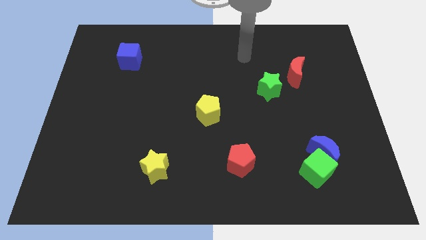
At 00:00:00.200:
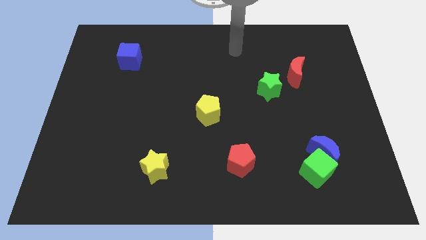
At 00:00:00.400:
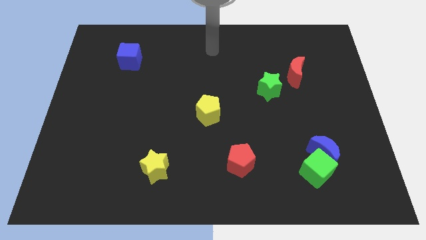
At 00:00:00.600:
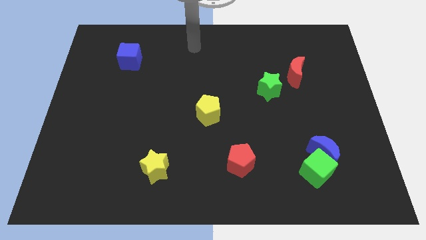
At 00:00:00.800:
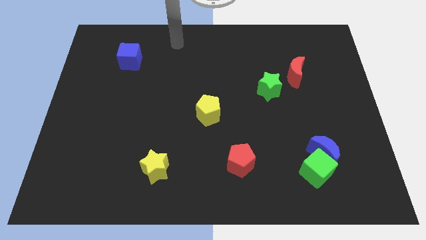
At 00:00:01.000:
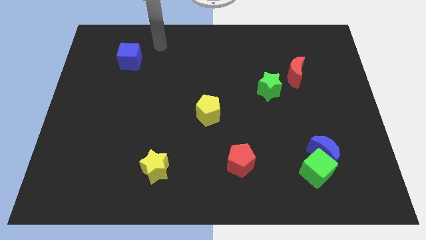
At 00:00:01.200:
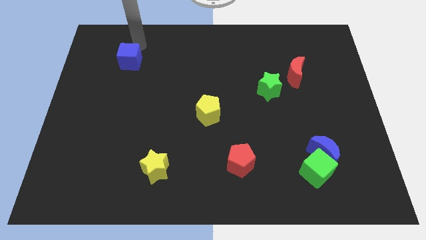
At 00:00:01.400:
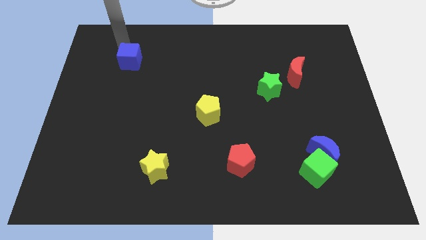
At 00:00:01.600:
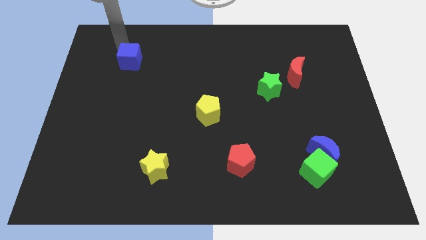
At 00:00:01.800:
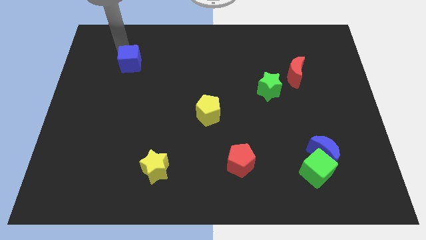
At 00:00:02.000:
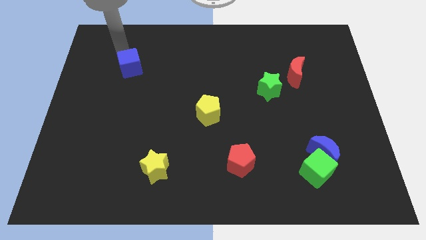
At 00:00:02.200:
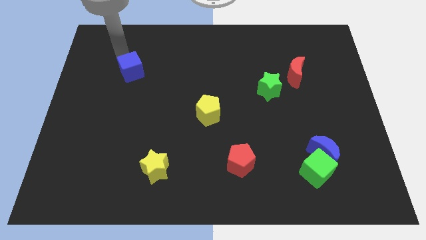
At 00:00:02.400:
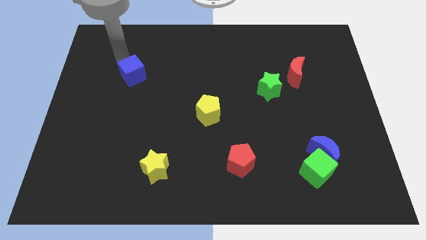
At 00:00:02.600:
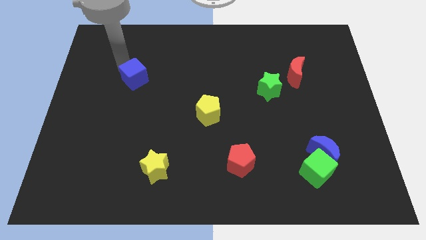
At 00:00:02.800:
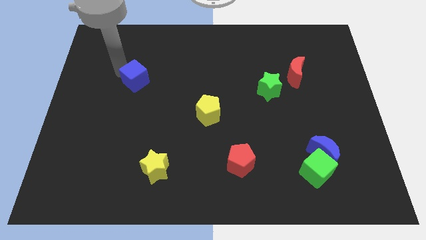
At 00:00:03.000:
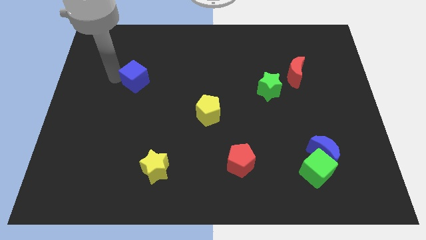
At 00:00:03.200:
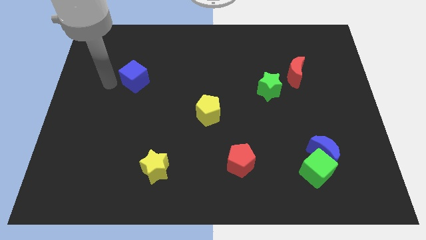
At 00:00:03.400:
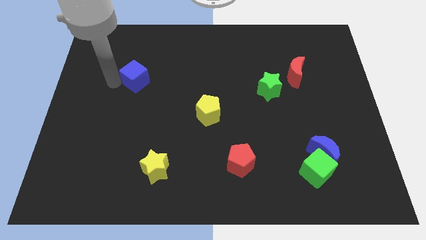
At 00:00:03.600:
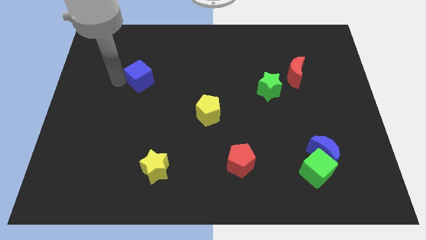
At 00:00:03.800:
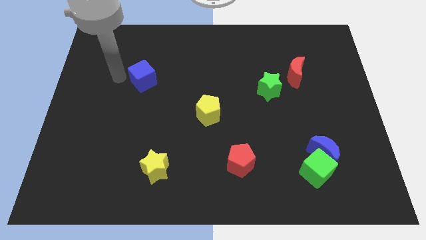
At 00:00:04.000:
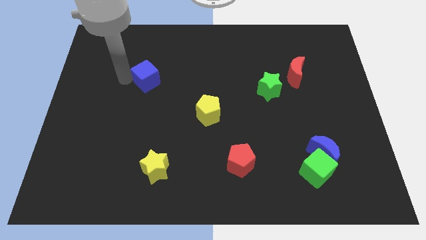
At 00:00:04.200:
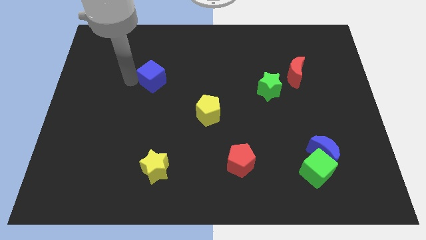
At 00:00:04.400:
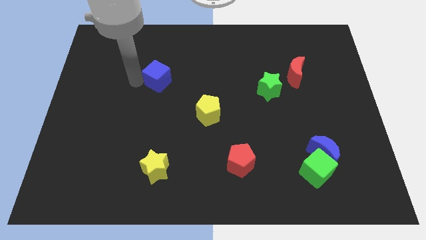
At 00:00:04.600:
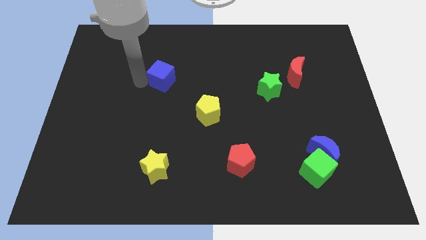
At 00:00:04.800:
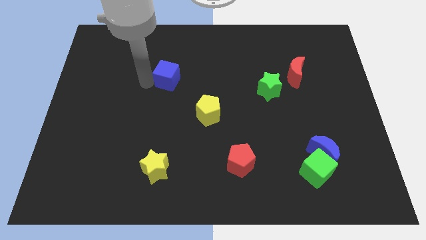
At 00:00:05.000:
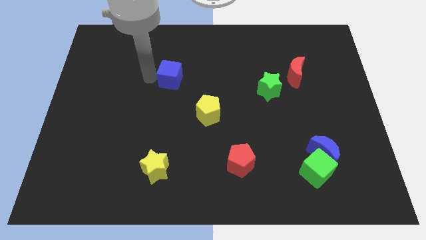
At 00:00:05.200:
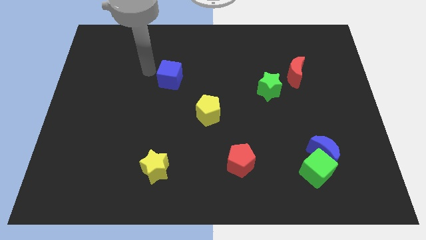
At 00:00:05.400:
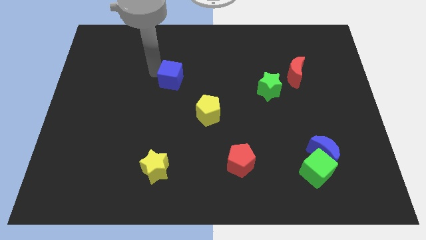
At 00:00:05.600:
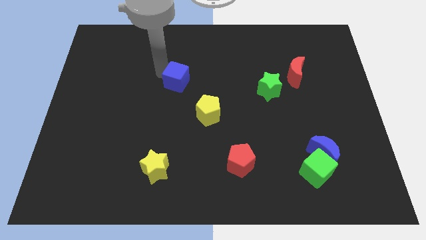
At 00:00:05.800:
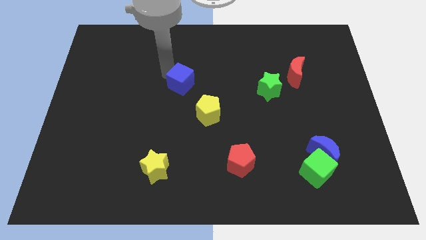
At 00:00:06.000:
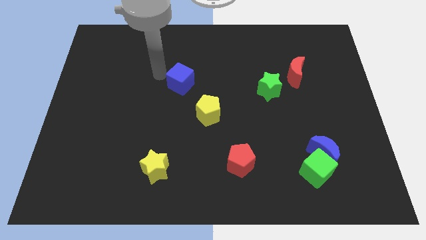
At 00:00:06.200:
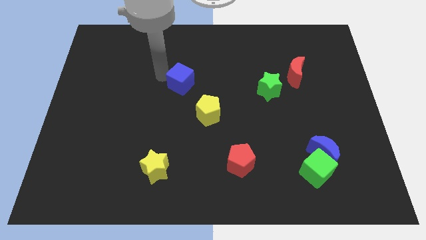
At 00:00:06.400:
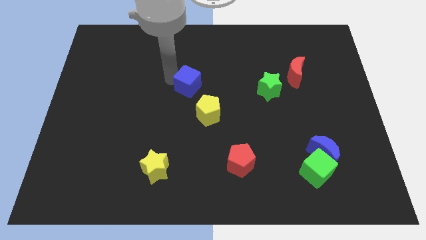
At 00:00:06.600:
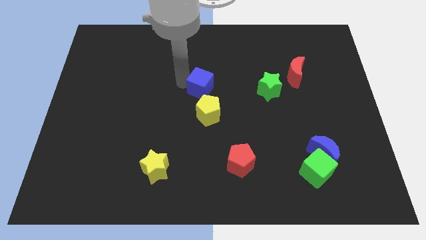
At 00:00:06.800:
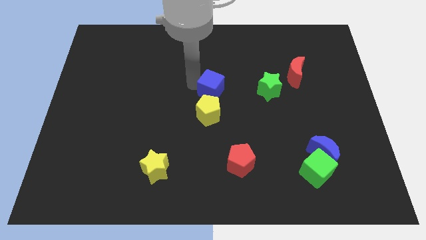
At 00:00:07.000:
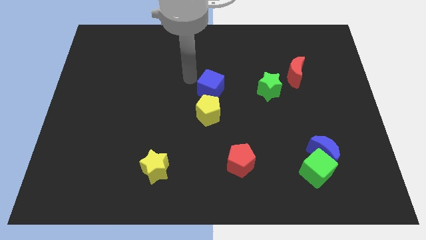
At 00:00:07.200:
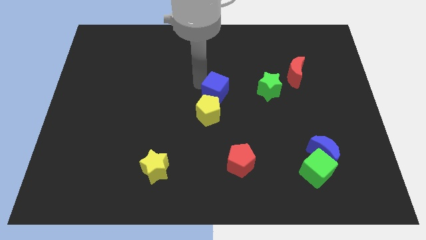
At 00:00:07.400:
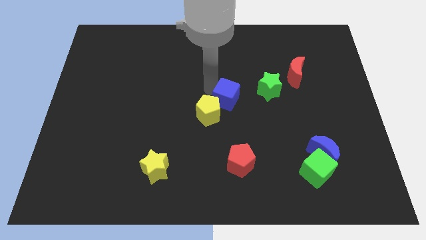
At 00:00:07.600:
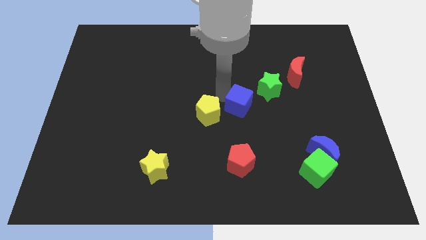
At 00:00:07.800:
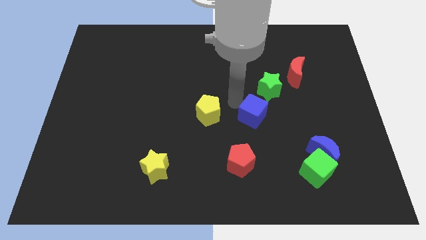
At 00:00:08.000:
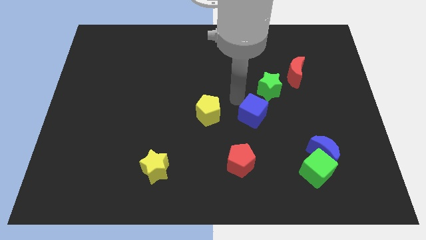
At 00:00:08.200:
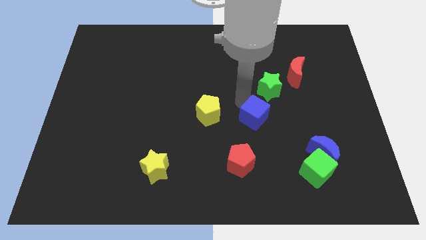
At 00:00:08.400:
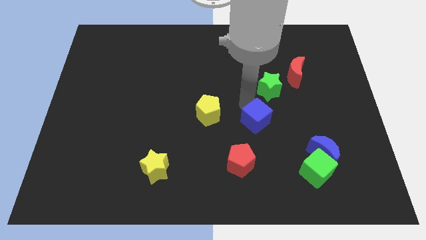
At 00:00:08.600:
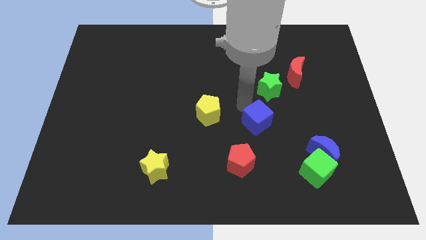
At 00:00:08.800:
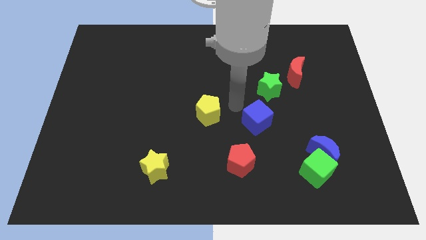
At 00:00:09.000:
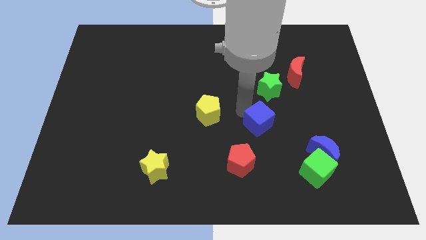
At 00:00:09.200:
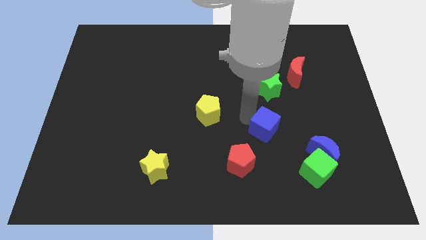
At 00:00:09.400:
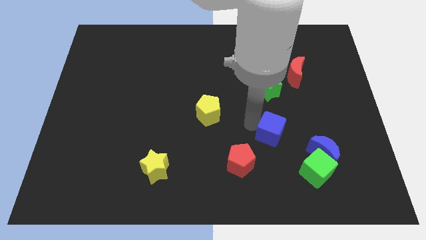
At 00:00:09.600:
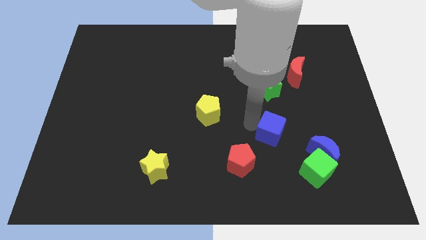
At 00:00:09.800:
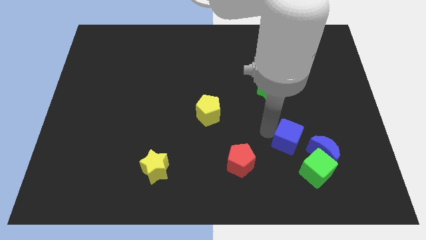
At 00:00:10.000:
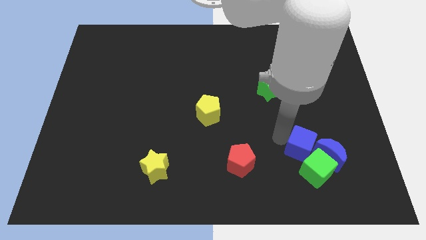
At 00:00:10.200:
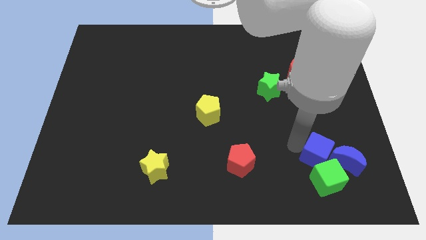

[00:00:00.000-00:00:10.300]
move the blue cube next to the blue moon

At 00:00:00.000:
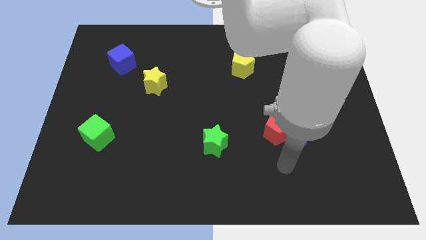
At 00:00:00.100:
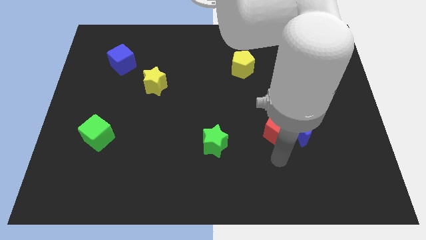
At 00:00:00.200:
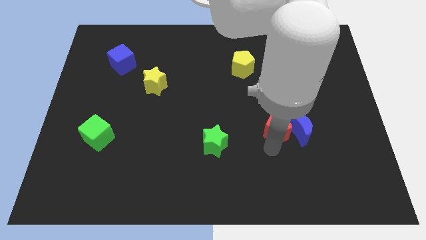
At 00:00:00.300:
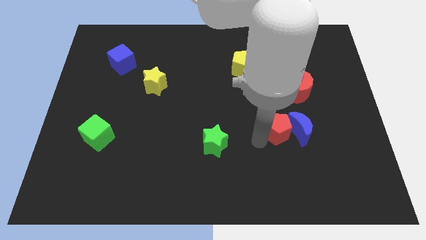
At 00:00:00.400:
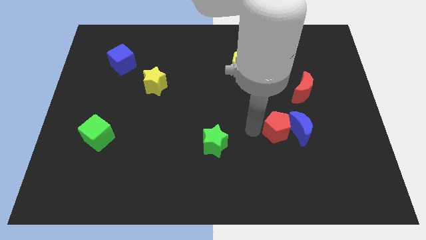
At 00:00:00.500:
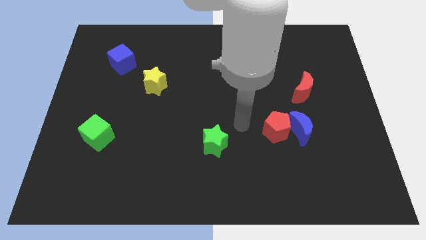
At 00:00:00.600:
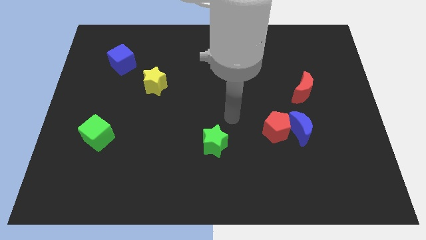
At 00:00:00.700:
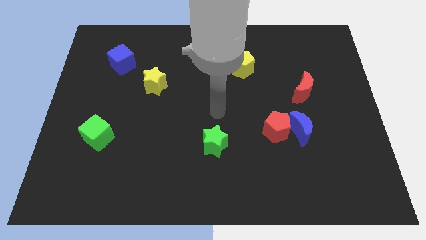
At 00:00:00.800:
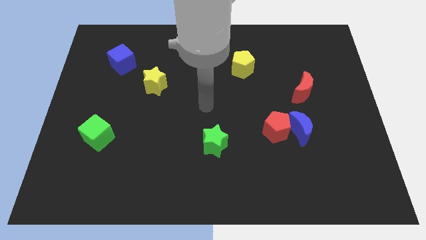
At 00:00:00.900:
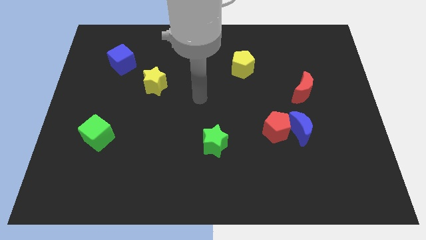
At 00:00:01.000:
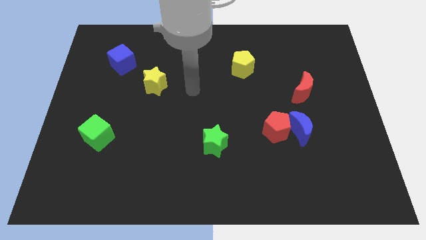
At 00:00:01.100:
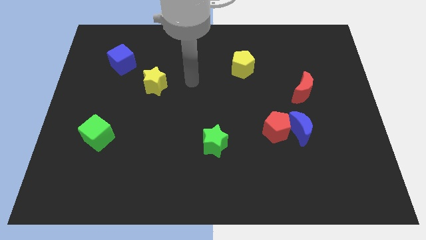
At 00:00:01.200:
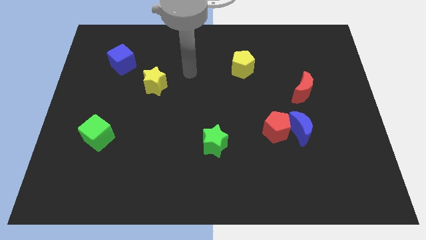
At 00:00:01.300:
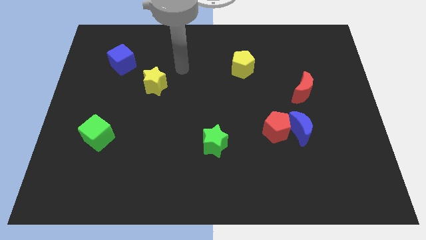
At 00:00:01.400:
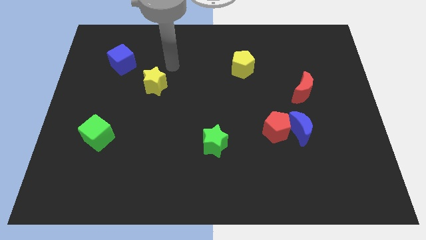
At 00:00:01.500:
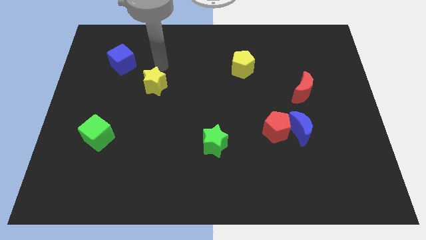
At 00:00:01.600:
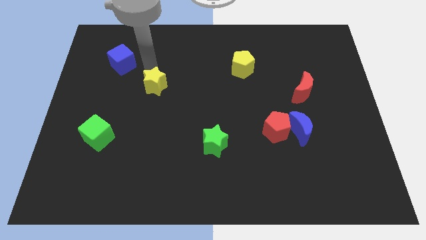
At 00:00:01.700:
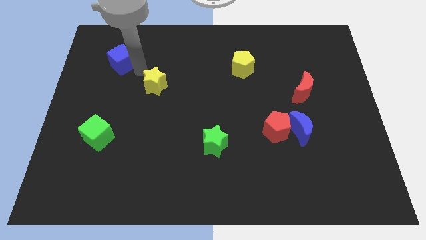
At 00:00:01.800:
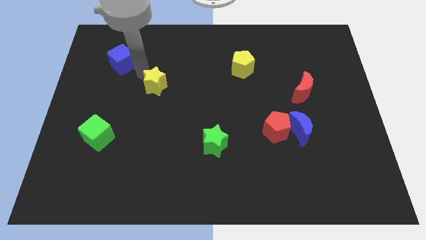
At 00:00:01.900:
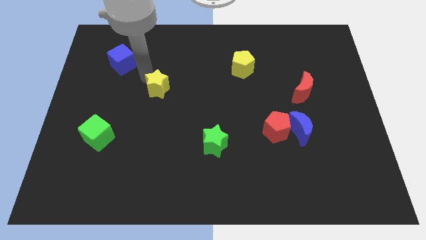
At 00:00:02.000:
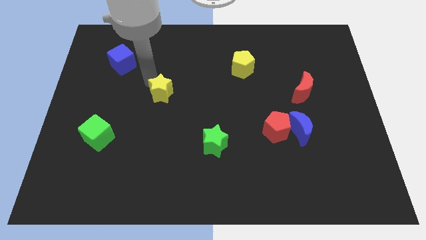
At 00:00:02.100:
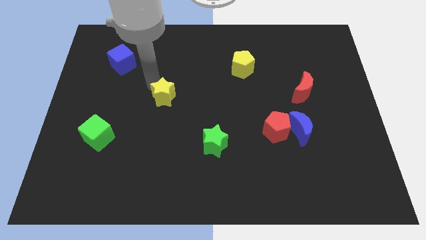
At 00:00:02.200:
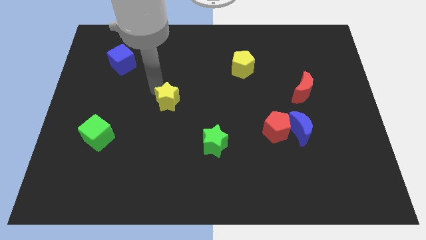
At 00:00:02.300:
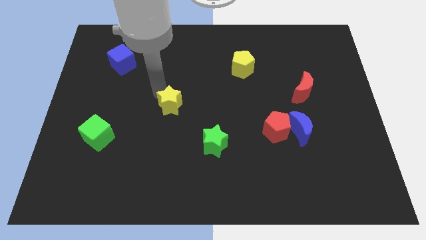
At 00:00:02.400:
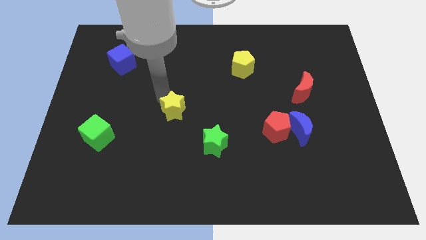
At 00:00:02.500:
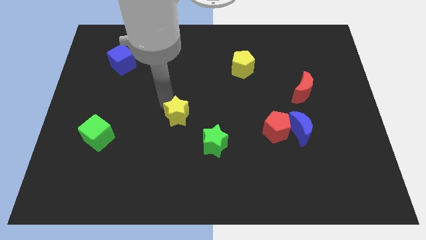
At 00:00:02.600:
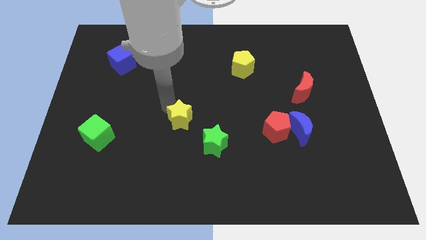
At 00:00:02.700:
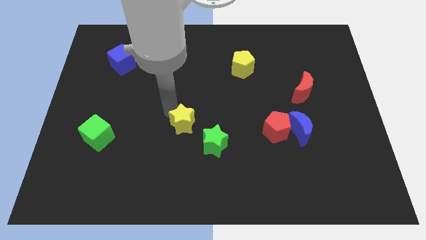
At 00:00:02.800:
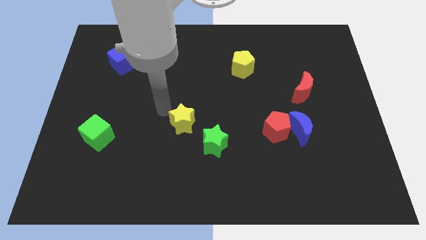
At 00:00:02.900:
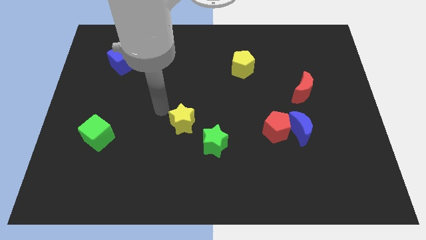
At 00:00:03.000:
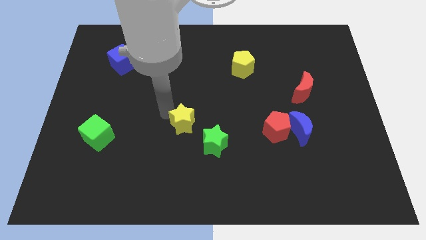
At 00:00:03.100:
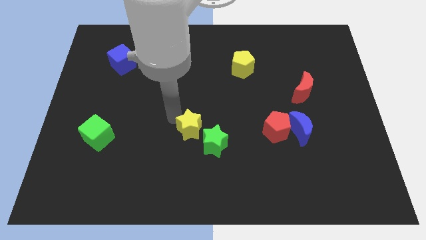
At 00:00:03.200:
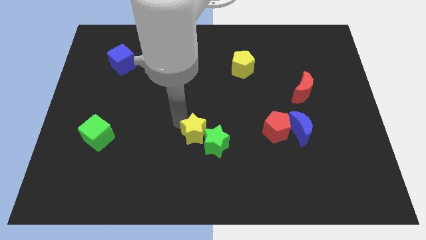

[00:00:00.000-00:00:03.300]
put the yellow star towards the green star
